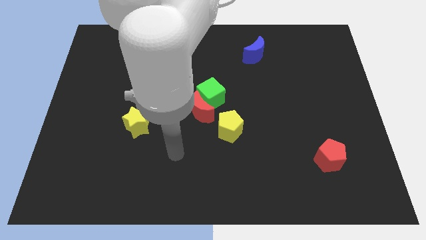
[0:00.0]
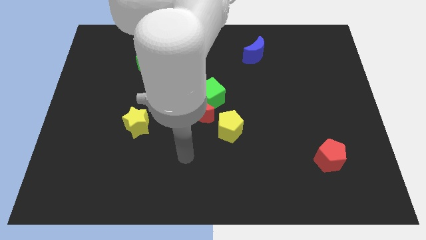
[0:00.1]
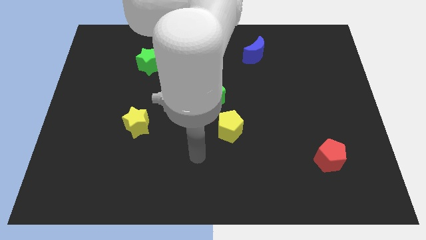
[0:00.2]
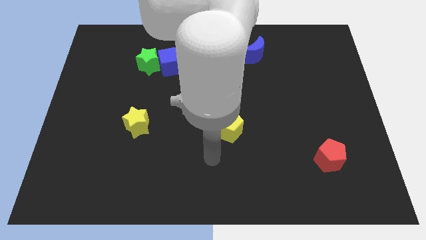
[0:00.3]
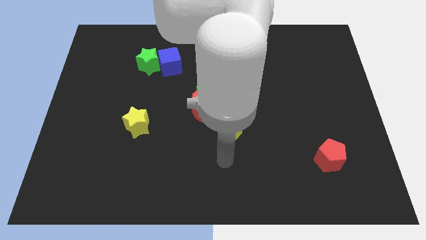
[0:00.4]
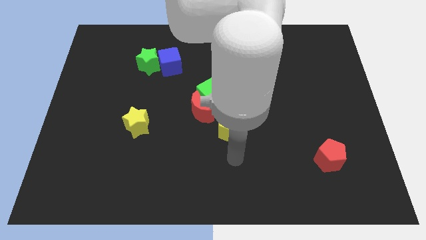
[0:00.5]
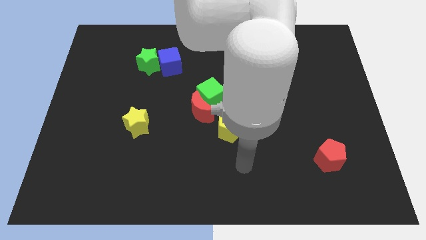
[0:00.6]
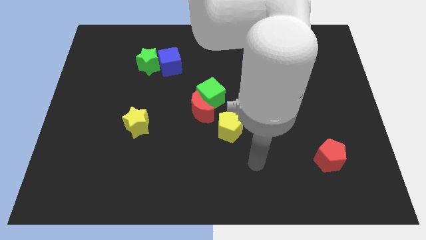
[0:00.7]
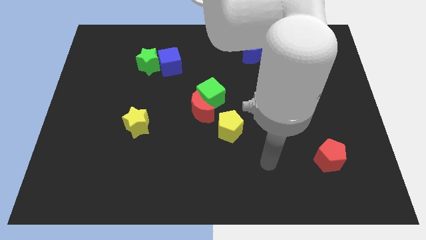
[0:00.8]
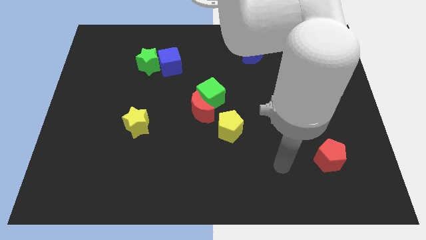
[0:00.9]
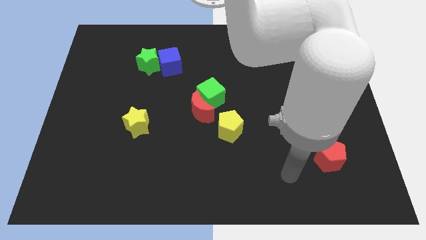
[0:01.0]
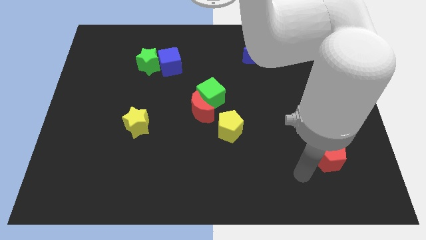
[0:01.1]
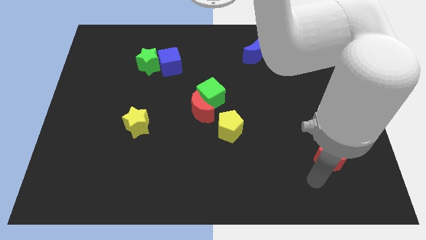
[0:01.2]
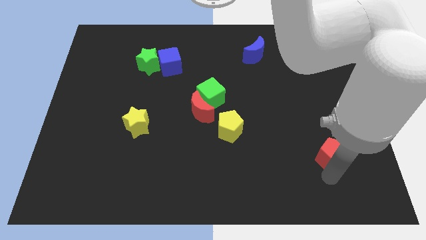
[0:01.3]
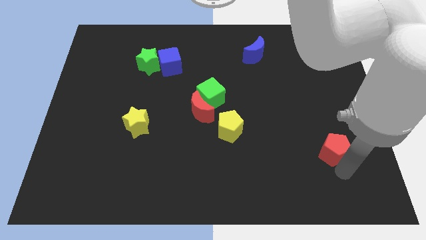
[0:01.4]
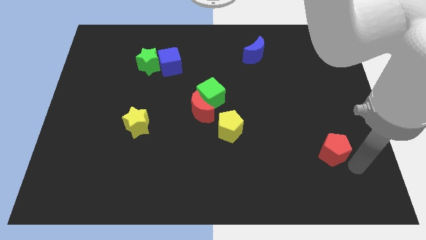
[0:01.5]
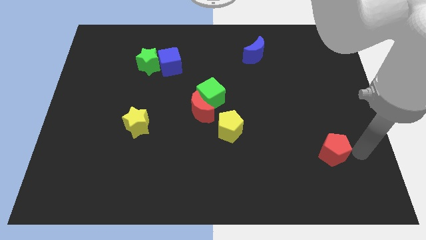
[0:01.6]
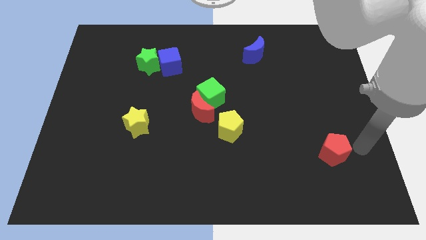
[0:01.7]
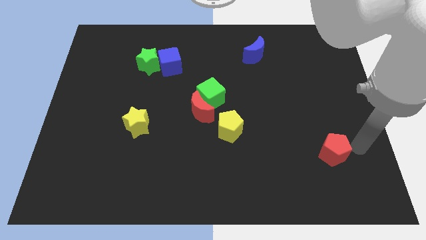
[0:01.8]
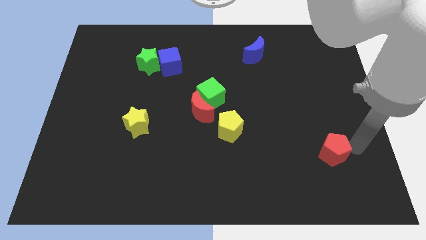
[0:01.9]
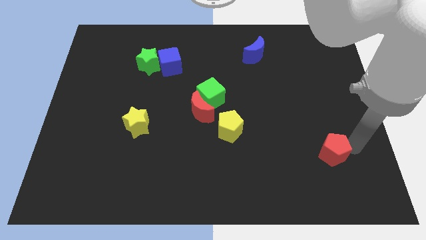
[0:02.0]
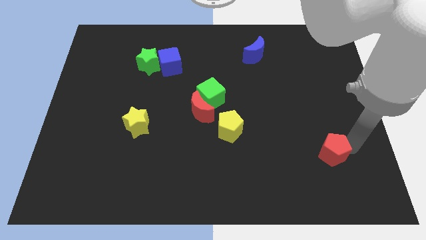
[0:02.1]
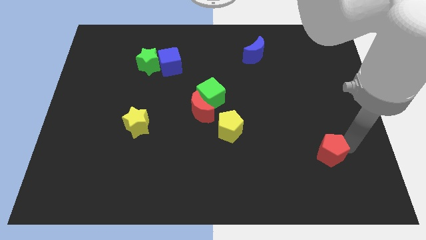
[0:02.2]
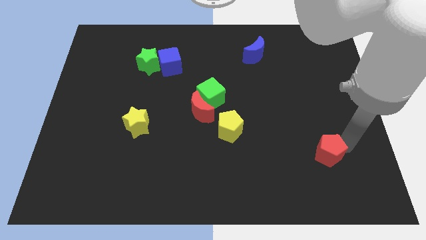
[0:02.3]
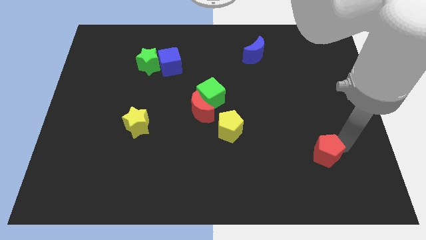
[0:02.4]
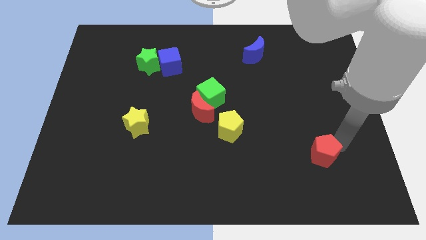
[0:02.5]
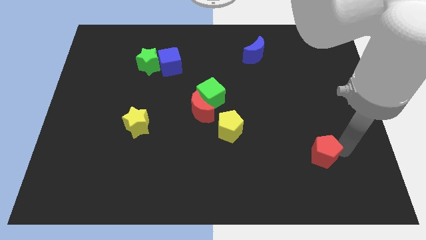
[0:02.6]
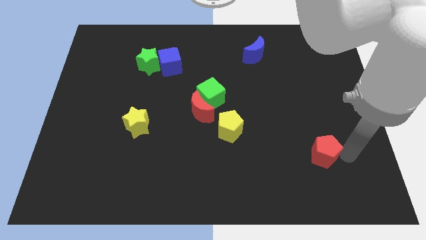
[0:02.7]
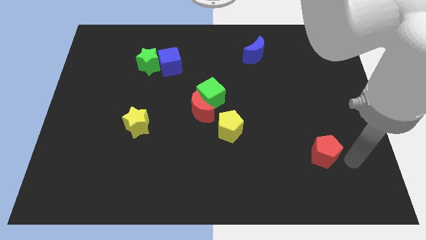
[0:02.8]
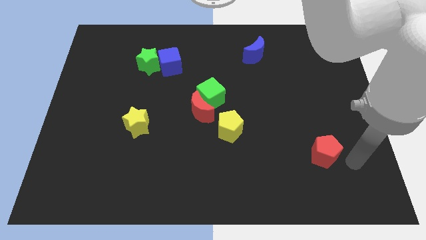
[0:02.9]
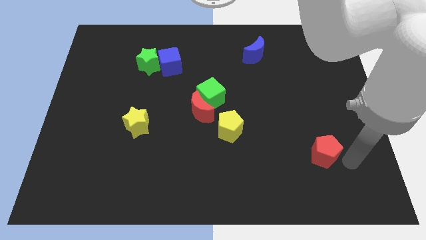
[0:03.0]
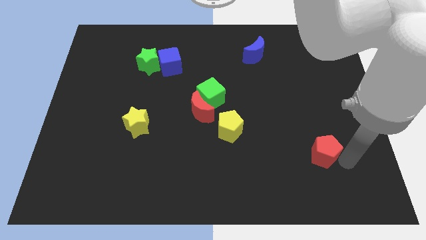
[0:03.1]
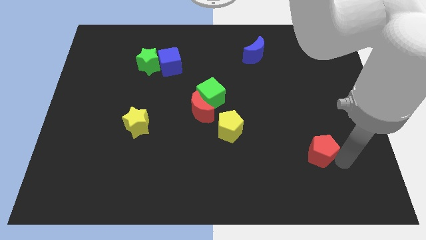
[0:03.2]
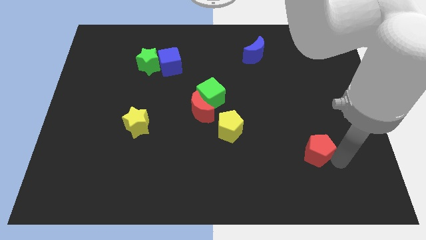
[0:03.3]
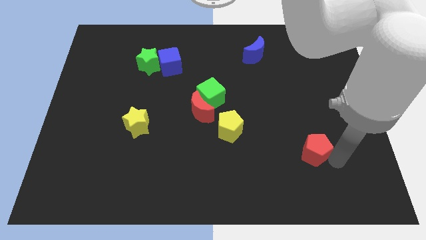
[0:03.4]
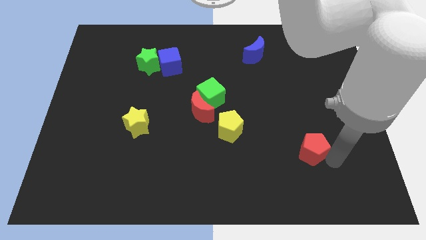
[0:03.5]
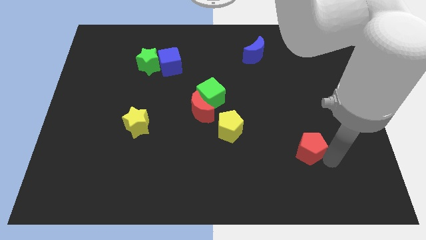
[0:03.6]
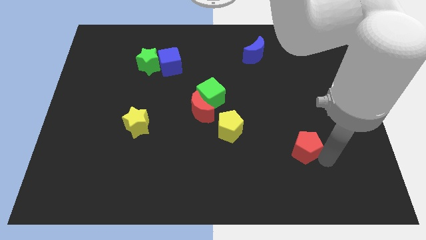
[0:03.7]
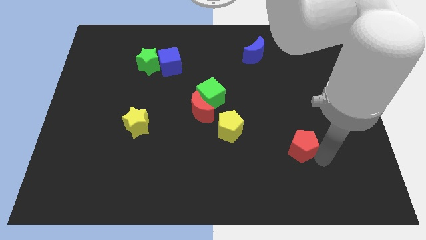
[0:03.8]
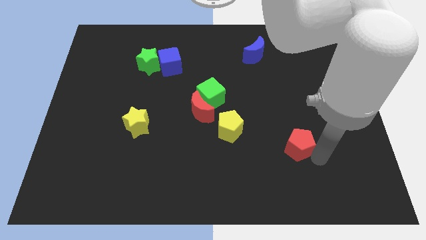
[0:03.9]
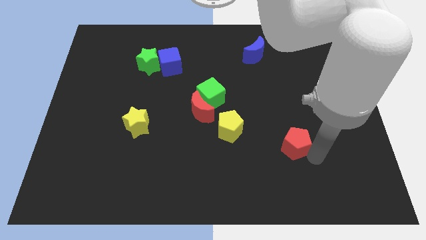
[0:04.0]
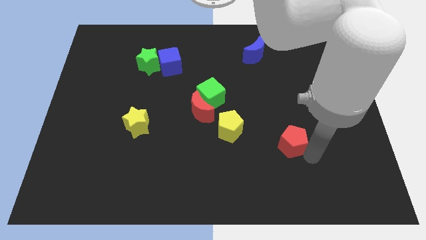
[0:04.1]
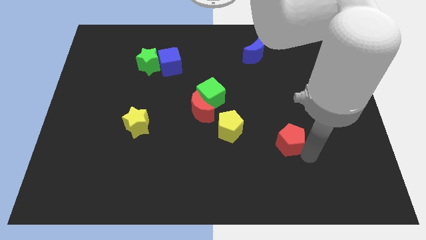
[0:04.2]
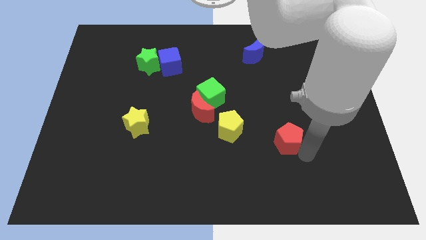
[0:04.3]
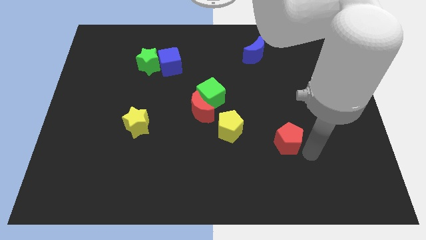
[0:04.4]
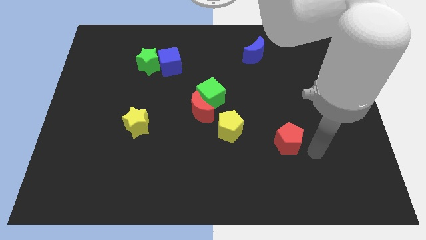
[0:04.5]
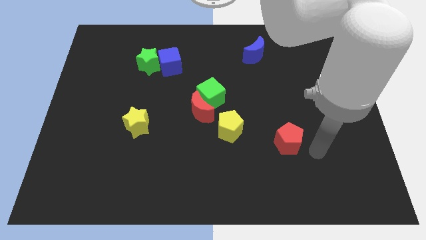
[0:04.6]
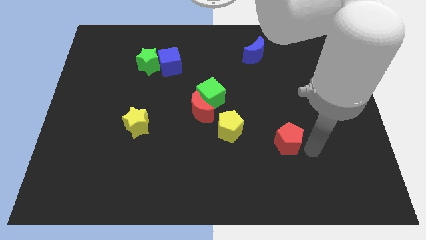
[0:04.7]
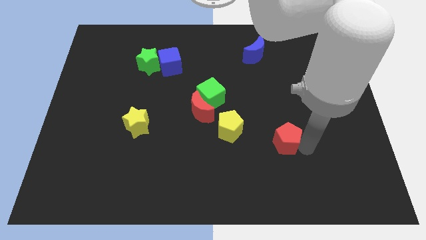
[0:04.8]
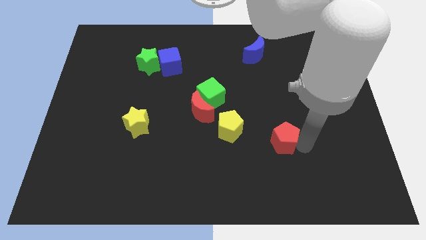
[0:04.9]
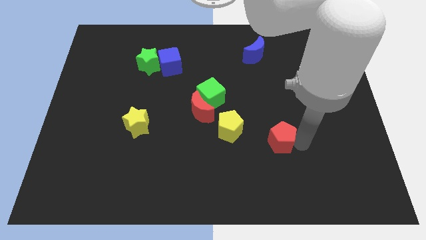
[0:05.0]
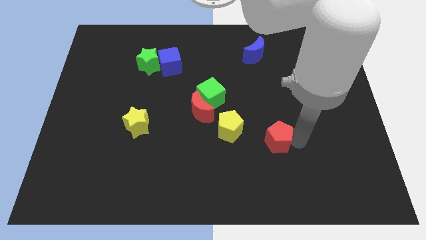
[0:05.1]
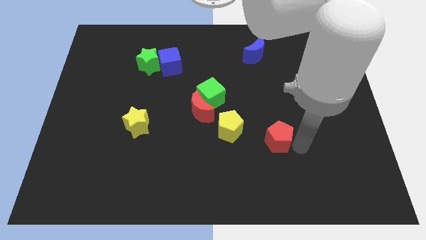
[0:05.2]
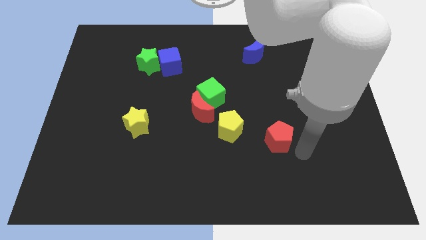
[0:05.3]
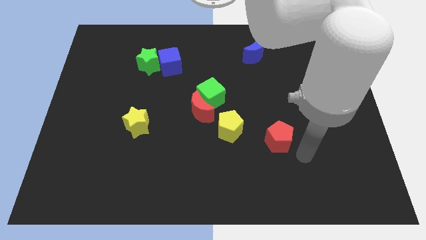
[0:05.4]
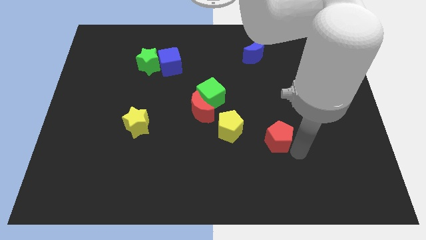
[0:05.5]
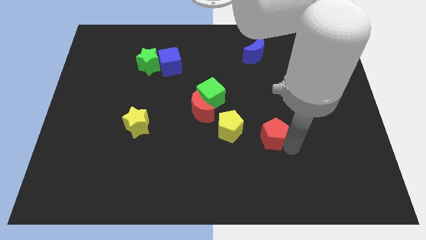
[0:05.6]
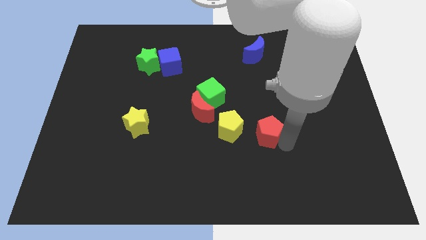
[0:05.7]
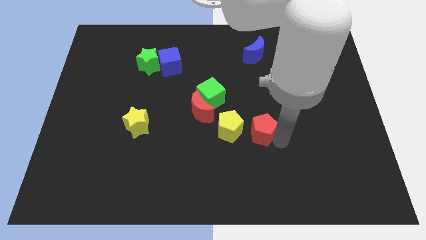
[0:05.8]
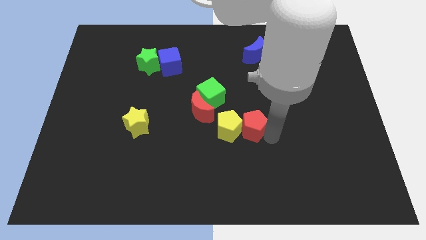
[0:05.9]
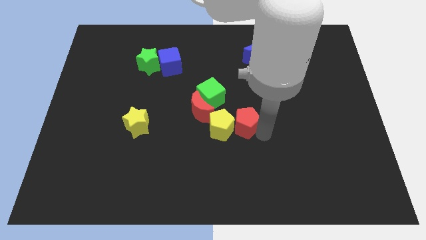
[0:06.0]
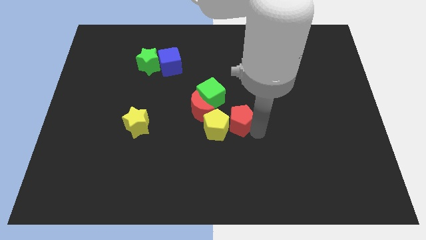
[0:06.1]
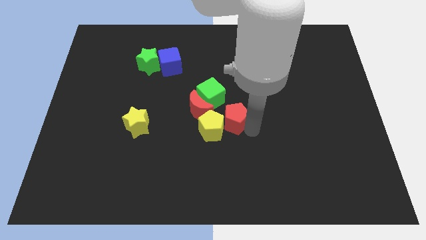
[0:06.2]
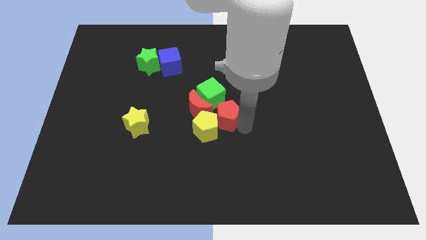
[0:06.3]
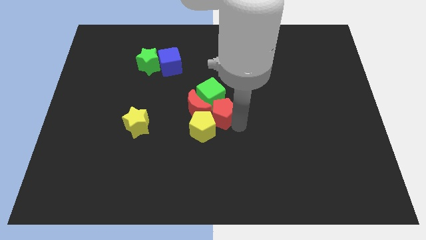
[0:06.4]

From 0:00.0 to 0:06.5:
push the red pentagon to the green cube
